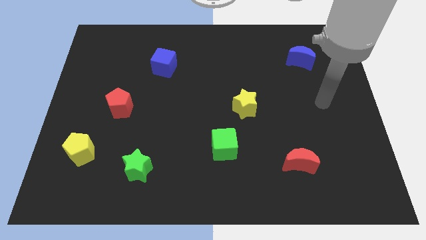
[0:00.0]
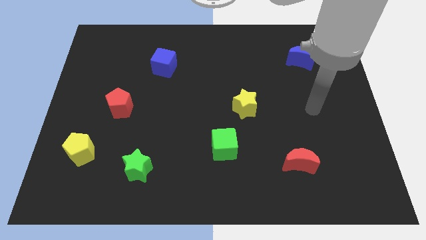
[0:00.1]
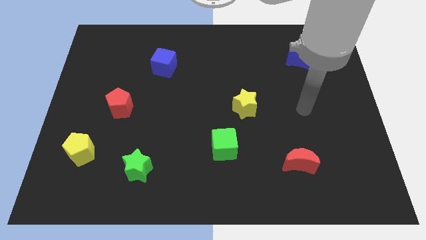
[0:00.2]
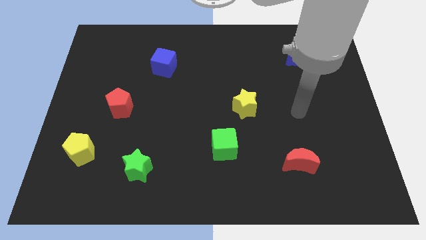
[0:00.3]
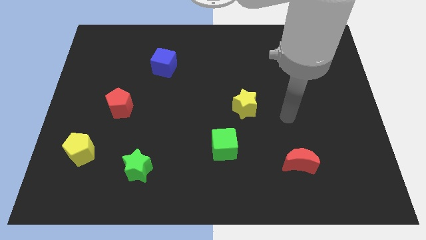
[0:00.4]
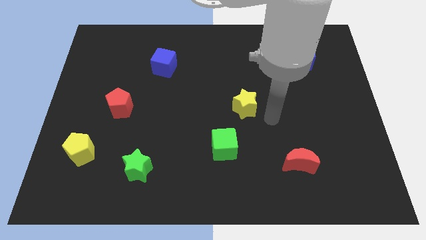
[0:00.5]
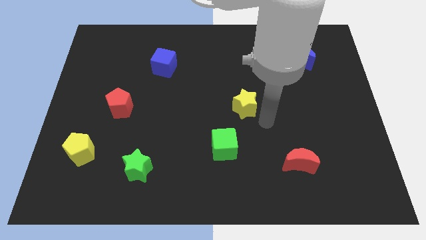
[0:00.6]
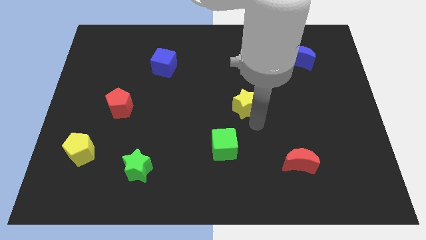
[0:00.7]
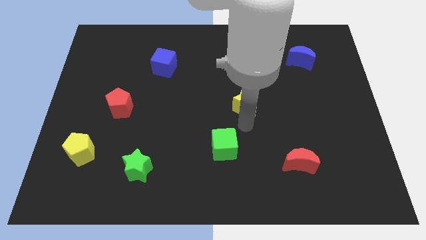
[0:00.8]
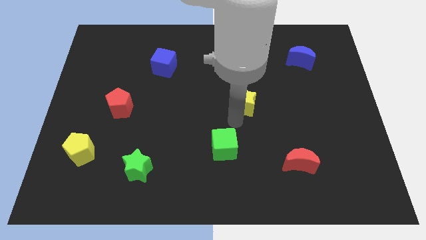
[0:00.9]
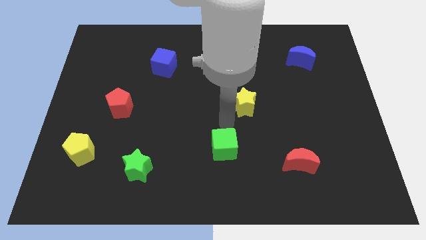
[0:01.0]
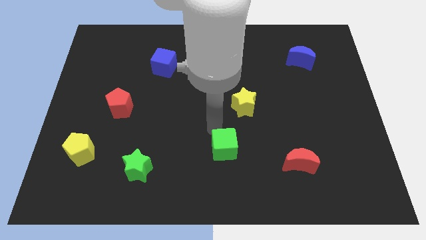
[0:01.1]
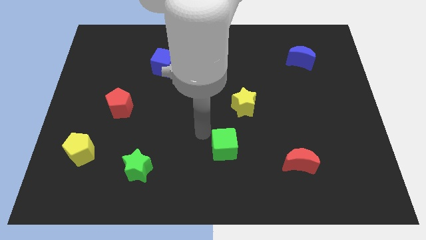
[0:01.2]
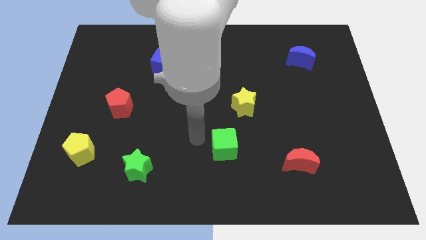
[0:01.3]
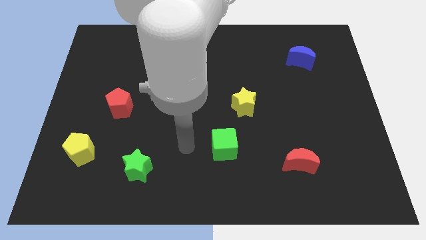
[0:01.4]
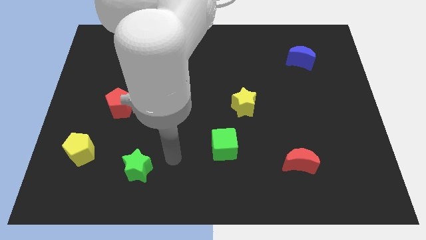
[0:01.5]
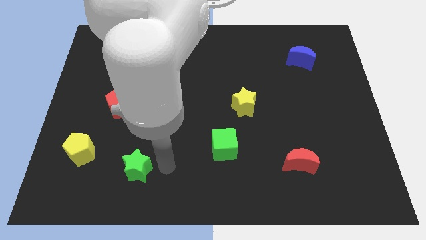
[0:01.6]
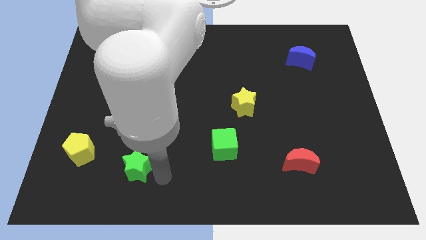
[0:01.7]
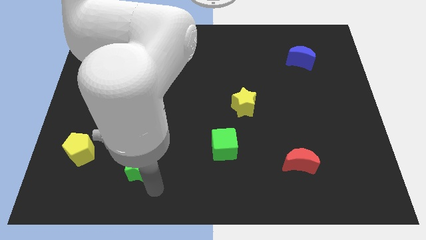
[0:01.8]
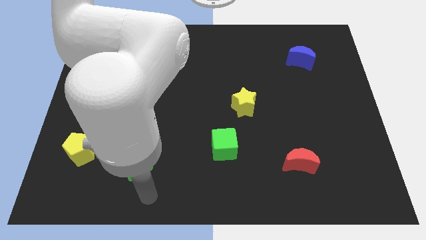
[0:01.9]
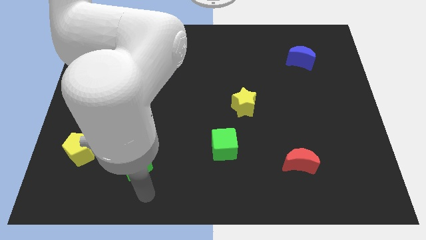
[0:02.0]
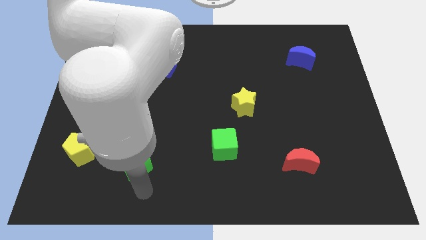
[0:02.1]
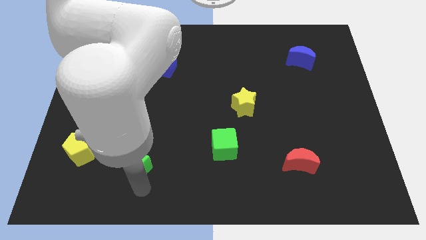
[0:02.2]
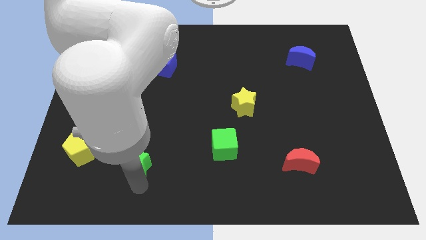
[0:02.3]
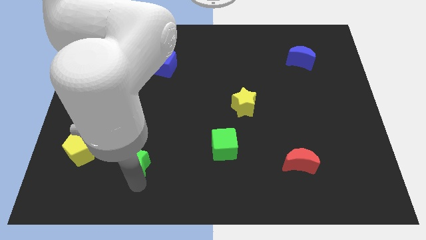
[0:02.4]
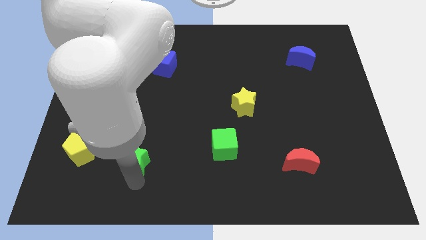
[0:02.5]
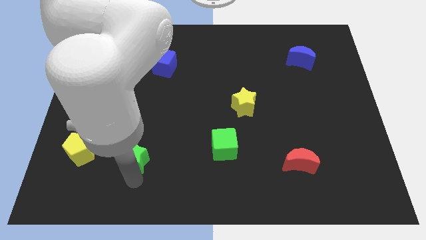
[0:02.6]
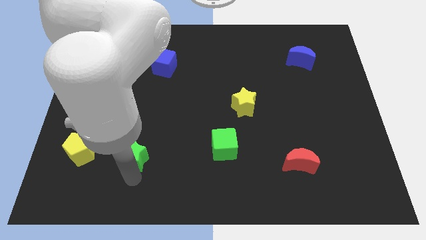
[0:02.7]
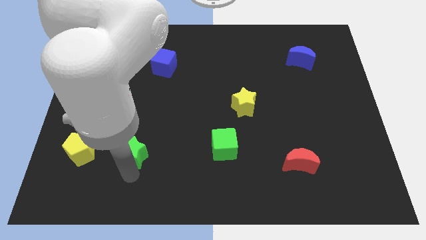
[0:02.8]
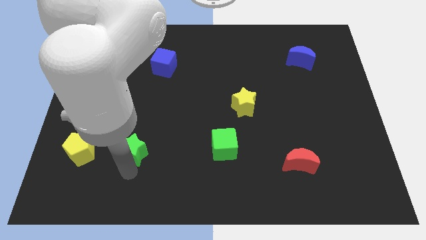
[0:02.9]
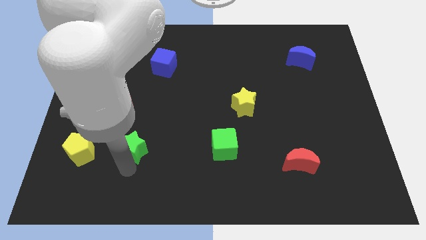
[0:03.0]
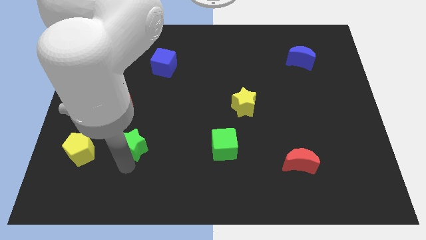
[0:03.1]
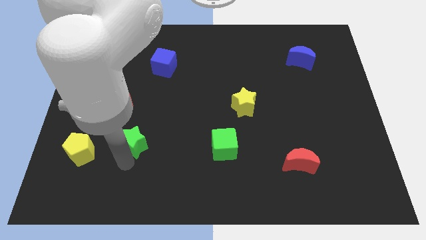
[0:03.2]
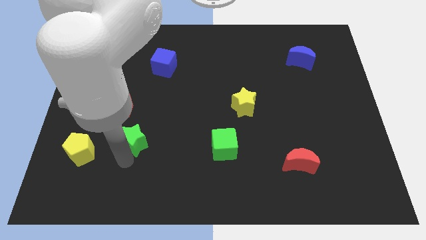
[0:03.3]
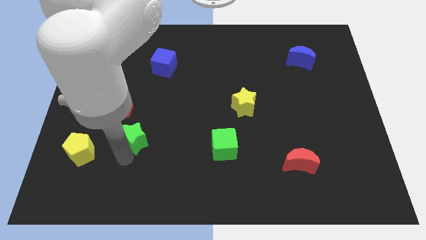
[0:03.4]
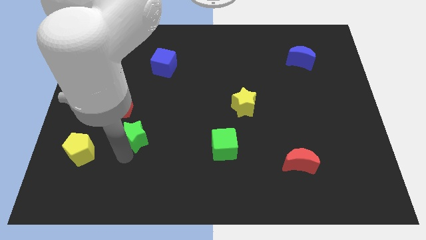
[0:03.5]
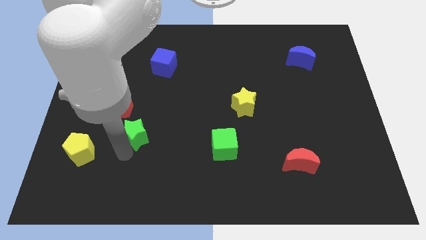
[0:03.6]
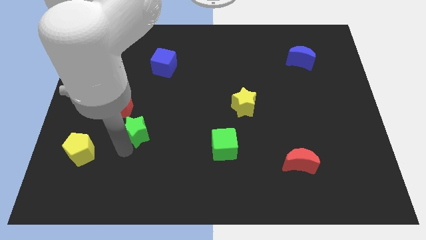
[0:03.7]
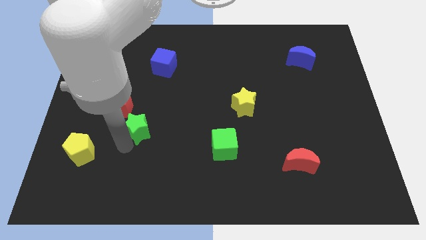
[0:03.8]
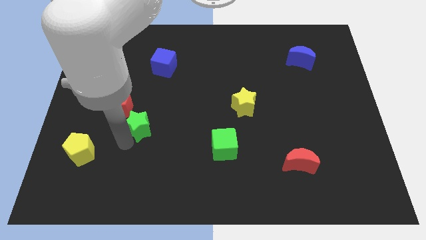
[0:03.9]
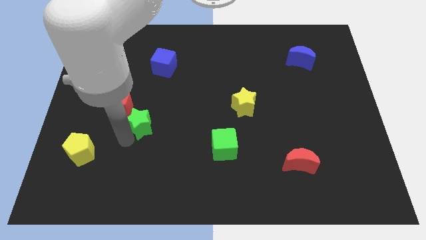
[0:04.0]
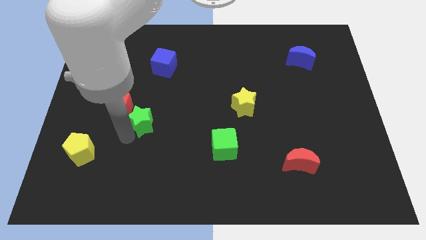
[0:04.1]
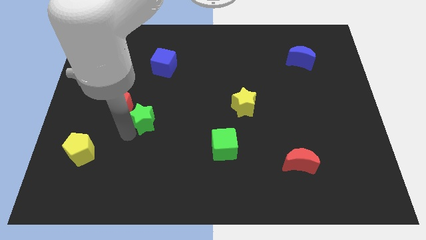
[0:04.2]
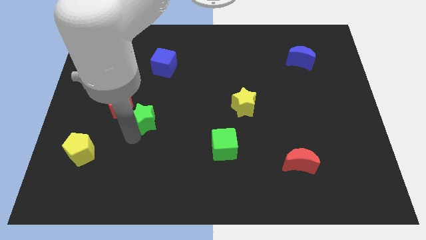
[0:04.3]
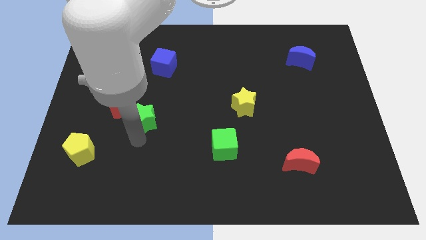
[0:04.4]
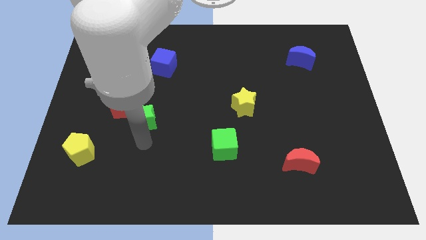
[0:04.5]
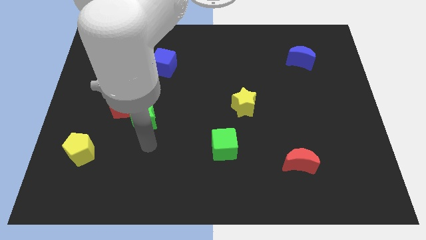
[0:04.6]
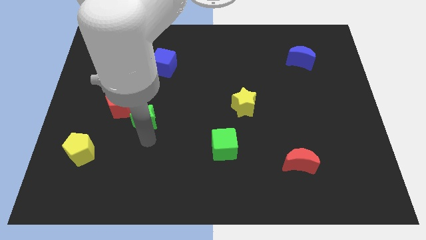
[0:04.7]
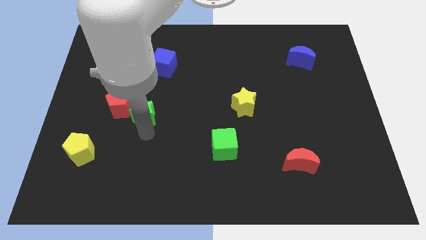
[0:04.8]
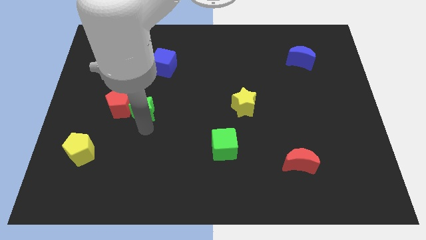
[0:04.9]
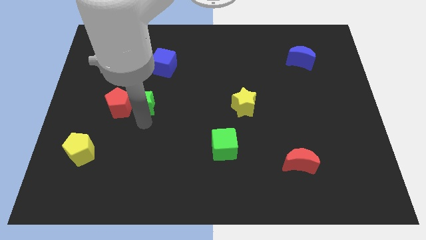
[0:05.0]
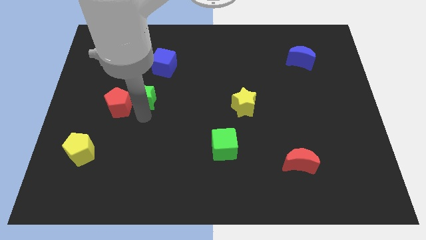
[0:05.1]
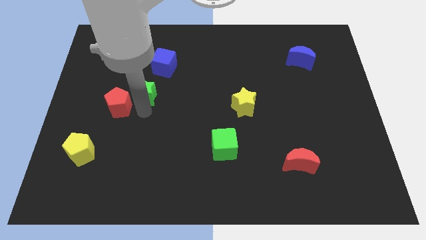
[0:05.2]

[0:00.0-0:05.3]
slide the green star upwards

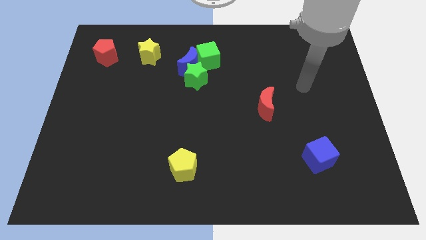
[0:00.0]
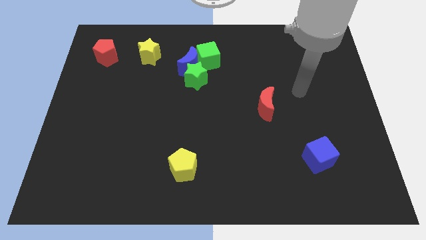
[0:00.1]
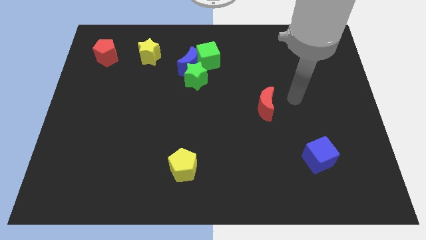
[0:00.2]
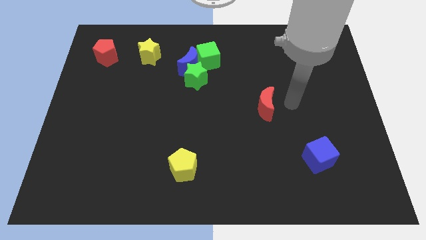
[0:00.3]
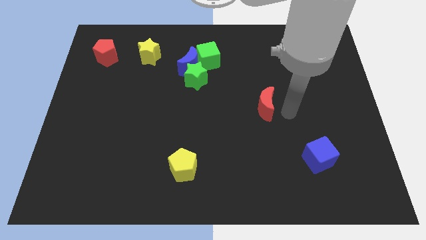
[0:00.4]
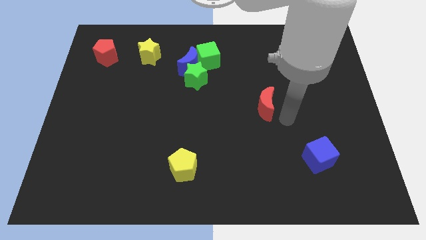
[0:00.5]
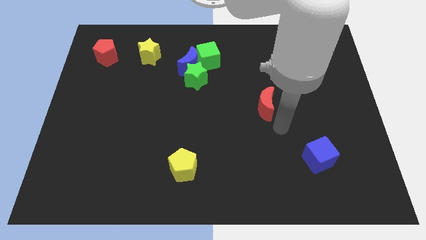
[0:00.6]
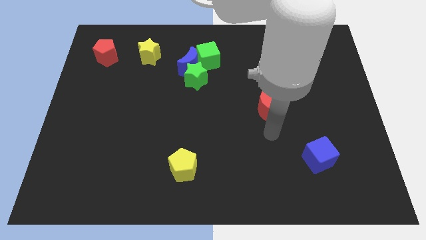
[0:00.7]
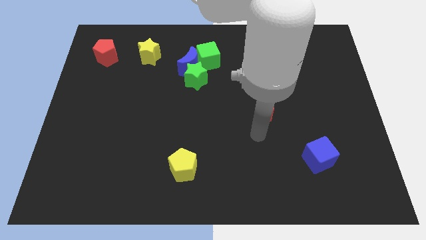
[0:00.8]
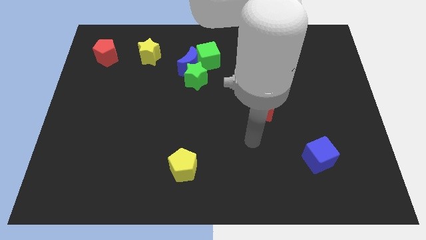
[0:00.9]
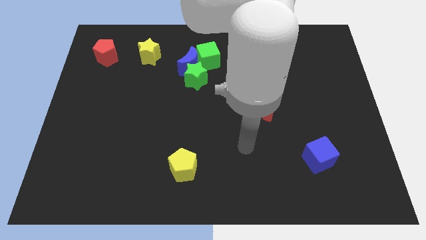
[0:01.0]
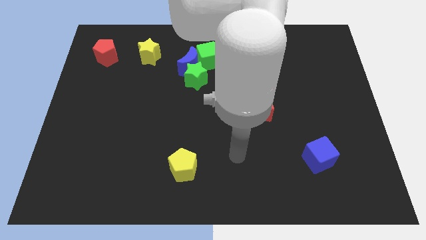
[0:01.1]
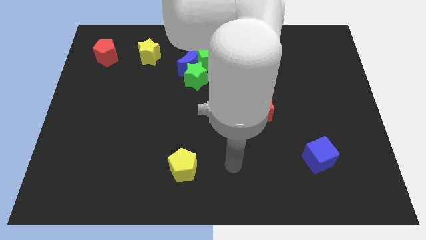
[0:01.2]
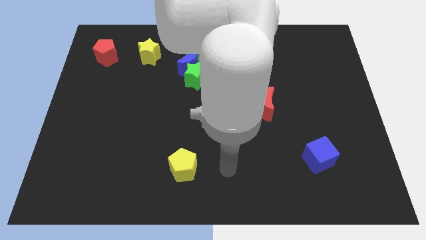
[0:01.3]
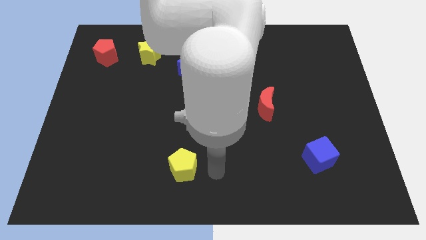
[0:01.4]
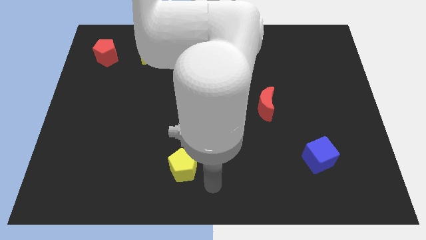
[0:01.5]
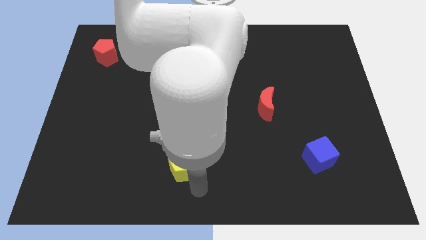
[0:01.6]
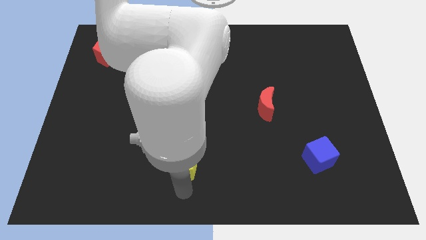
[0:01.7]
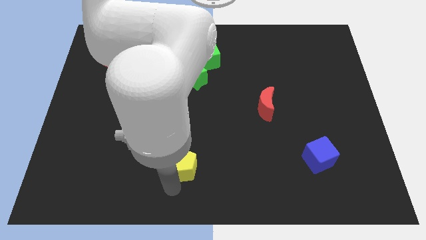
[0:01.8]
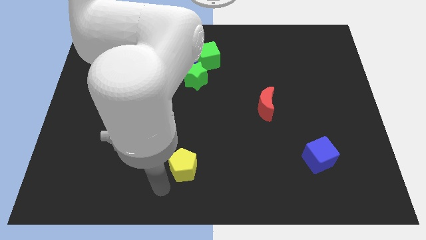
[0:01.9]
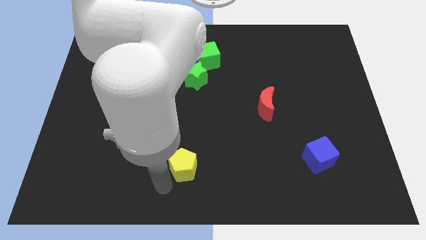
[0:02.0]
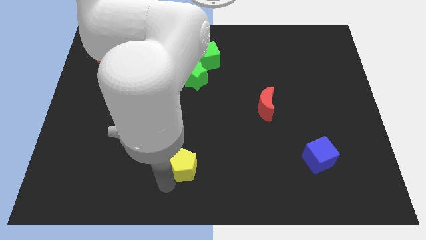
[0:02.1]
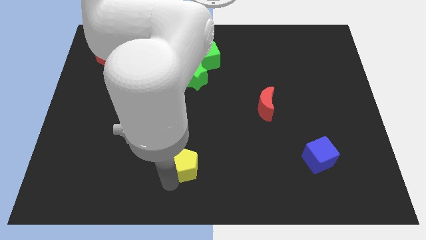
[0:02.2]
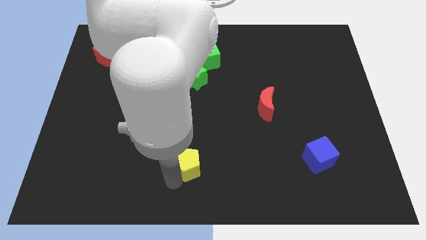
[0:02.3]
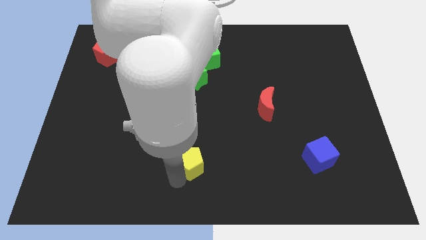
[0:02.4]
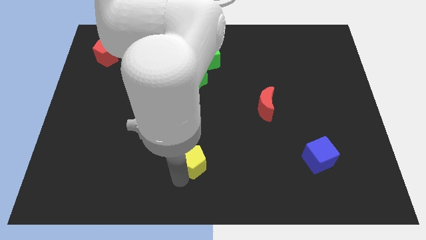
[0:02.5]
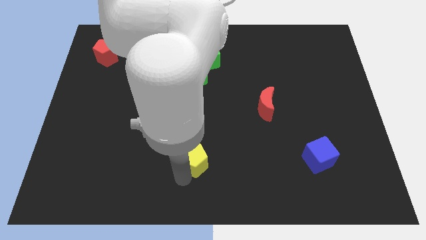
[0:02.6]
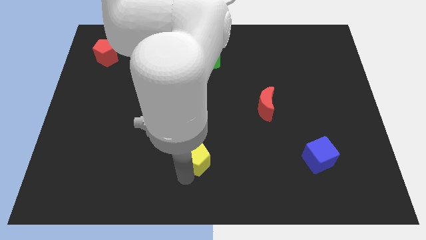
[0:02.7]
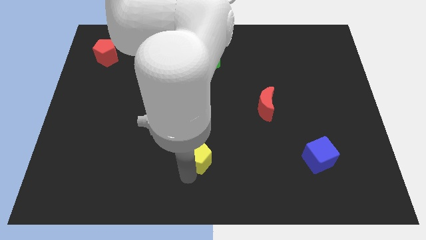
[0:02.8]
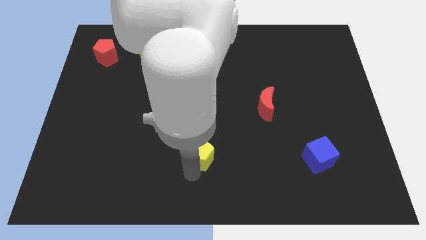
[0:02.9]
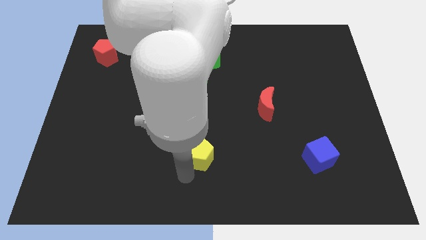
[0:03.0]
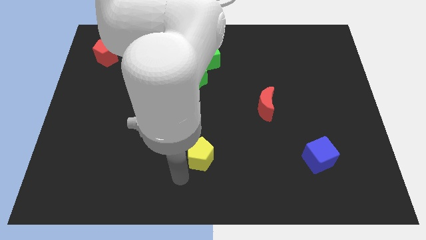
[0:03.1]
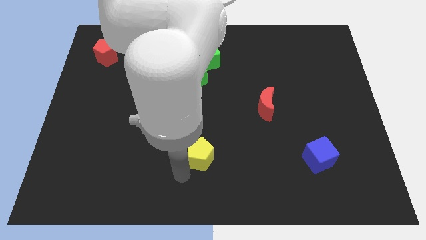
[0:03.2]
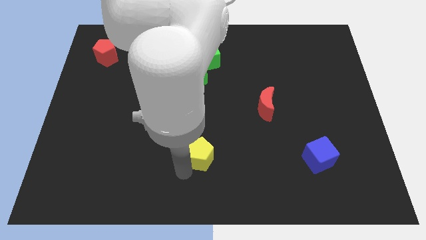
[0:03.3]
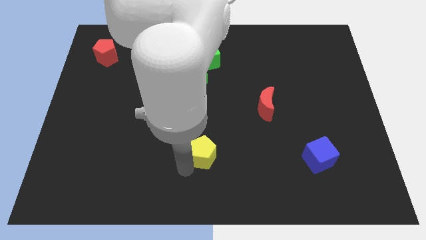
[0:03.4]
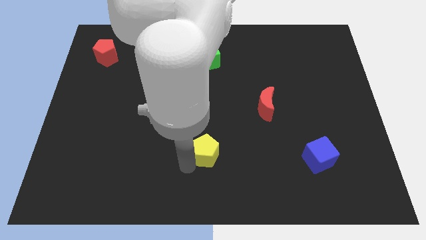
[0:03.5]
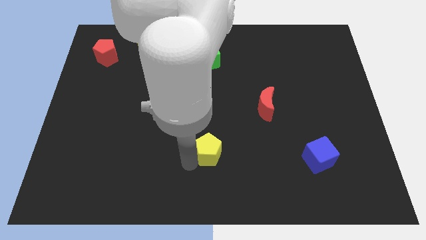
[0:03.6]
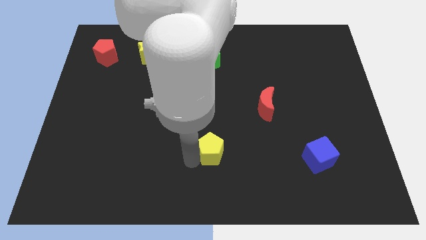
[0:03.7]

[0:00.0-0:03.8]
push the yellow pentagon upwards and then to the right a little bit
